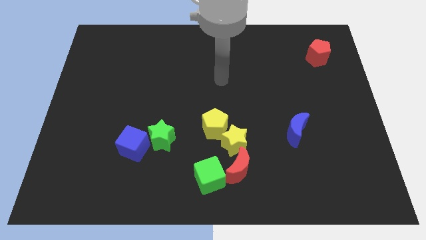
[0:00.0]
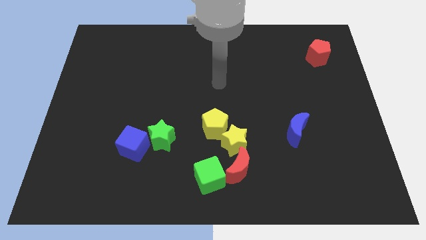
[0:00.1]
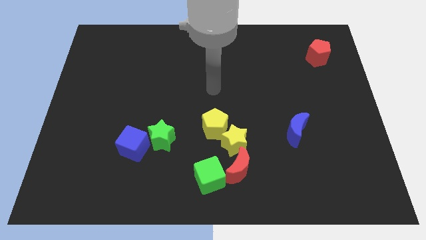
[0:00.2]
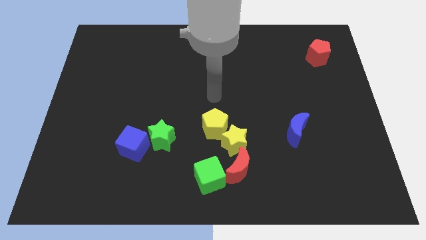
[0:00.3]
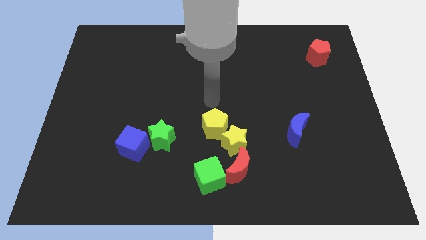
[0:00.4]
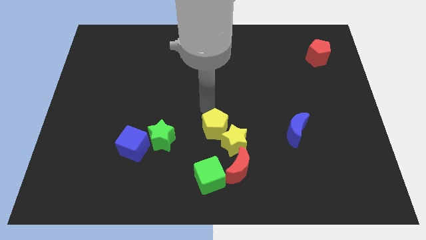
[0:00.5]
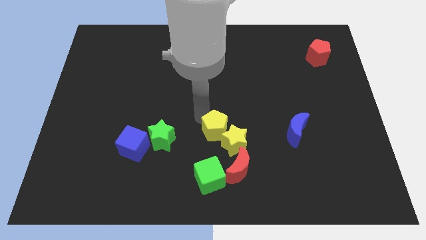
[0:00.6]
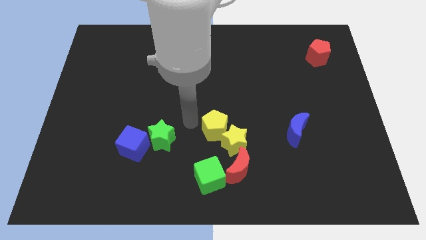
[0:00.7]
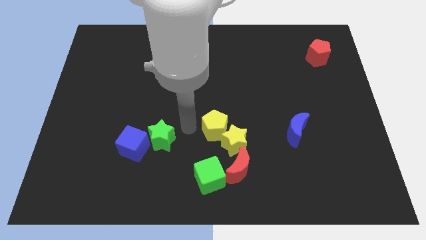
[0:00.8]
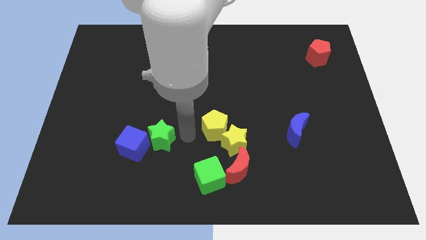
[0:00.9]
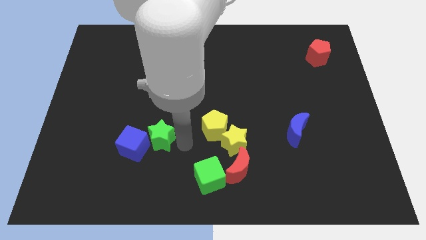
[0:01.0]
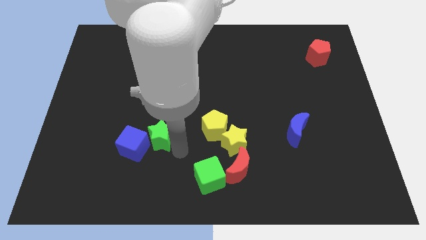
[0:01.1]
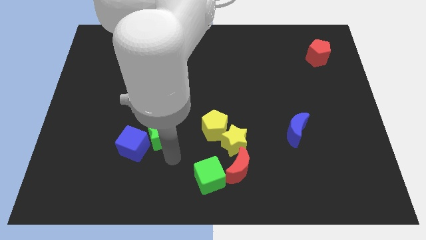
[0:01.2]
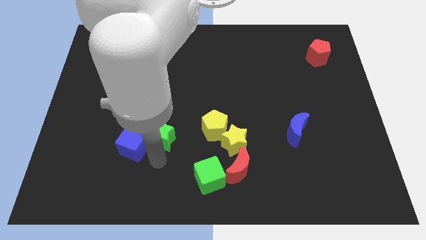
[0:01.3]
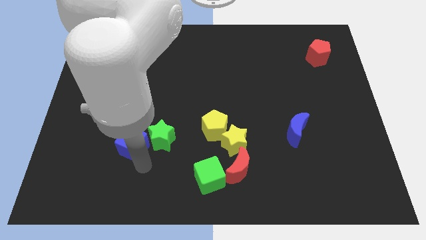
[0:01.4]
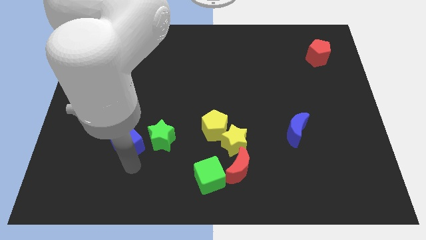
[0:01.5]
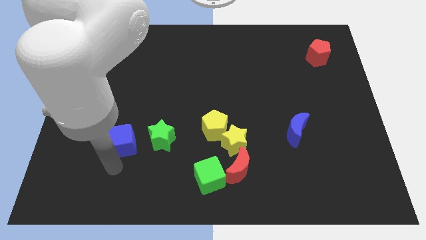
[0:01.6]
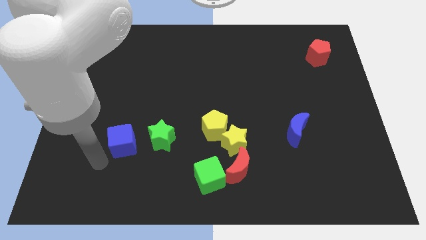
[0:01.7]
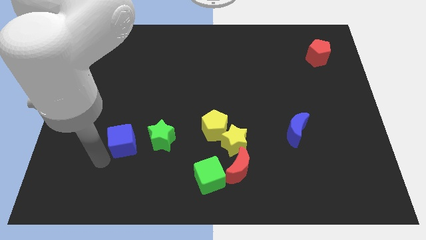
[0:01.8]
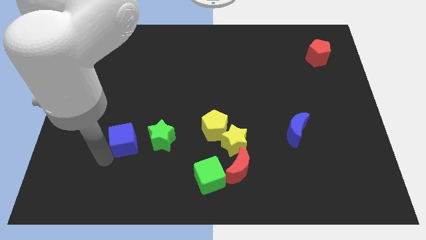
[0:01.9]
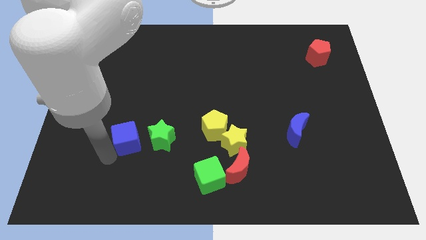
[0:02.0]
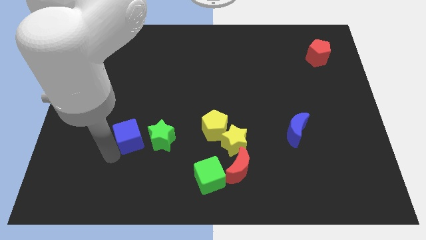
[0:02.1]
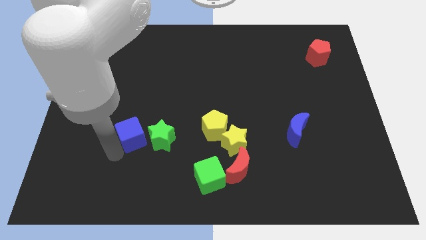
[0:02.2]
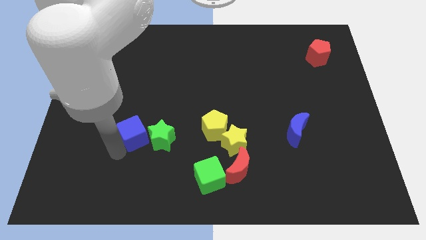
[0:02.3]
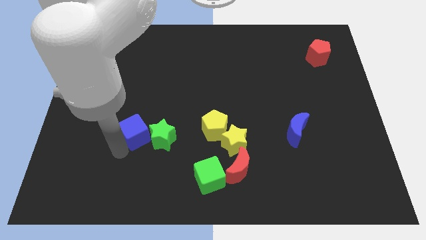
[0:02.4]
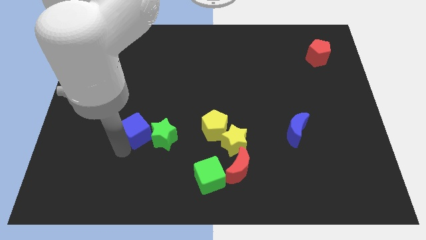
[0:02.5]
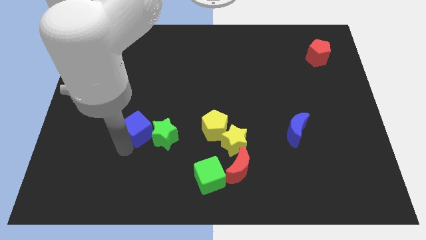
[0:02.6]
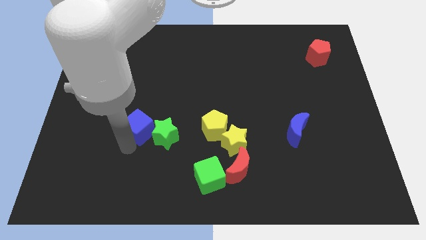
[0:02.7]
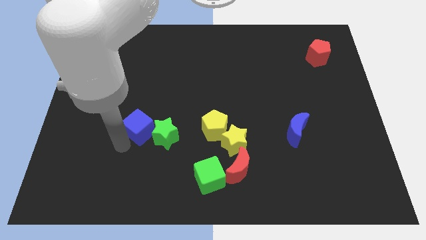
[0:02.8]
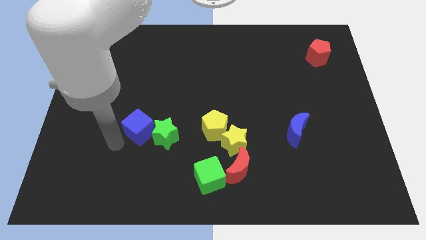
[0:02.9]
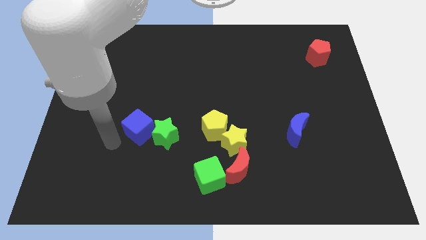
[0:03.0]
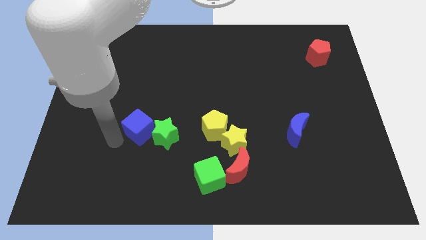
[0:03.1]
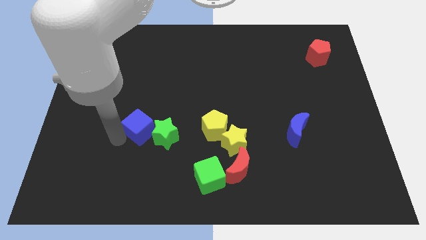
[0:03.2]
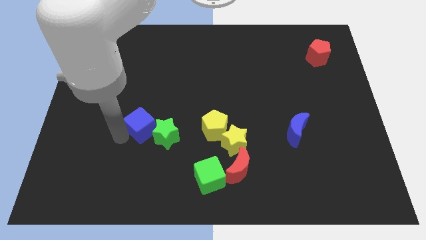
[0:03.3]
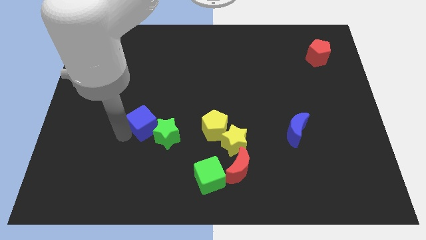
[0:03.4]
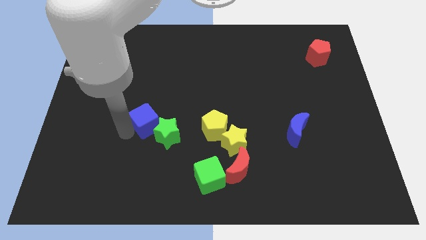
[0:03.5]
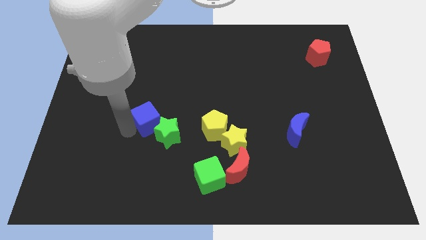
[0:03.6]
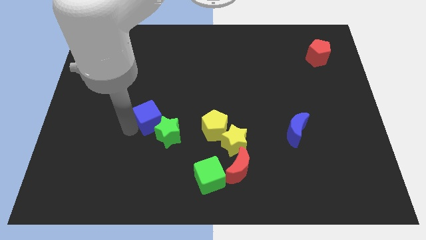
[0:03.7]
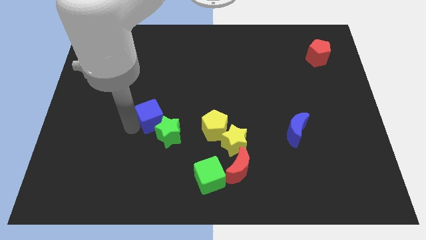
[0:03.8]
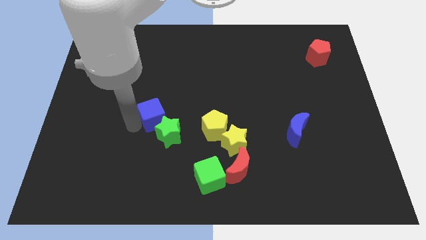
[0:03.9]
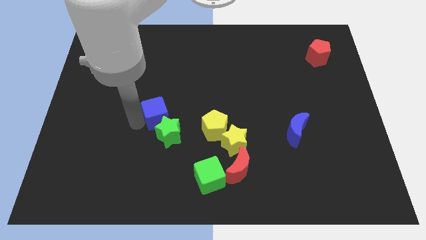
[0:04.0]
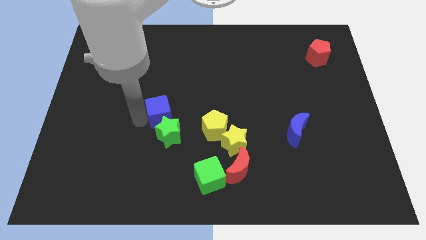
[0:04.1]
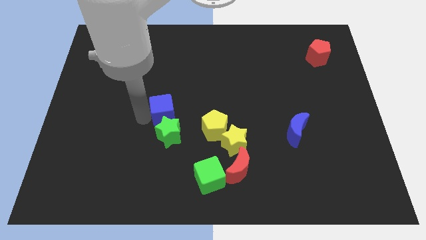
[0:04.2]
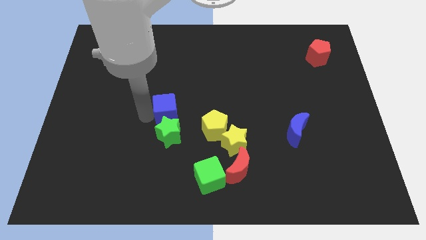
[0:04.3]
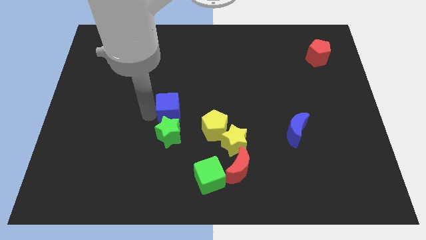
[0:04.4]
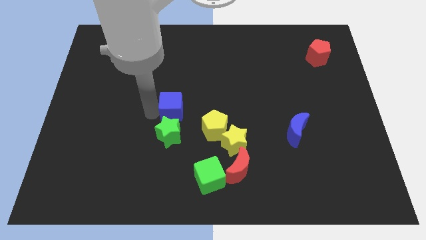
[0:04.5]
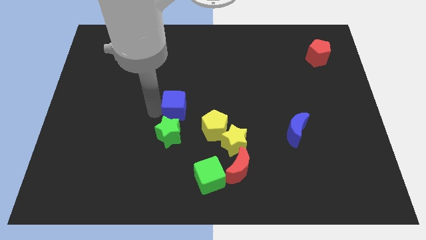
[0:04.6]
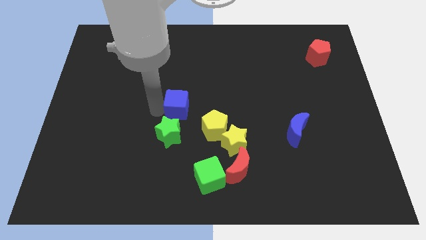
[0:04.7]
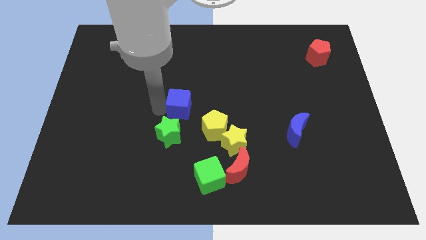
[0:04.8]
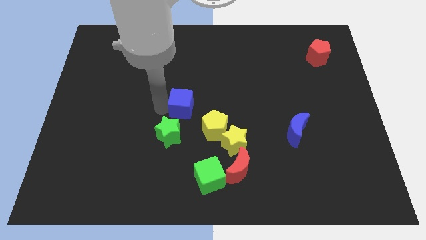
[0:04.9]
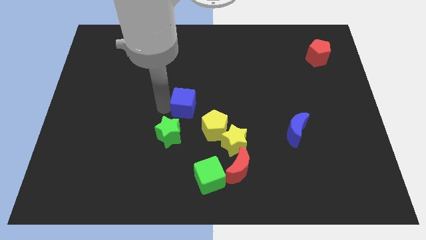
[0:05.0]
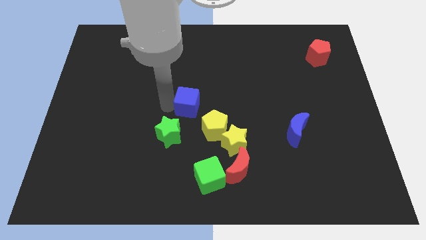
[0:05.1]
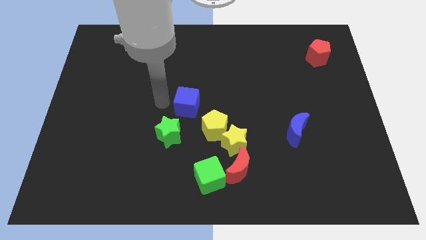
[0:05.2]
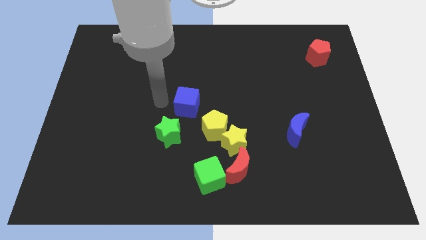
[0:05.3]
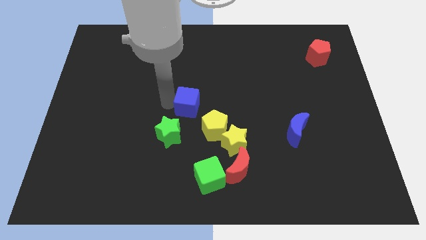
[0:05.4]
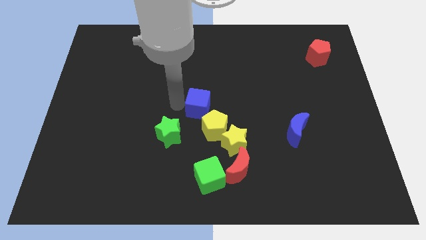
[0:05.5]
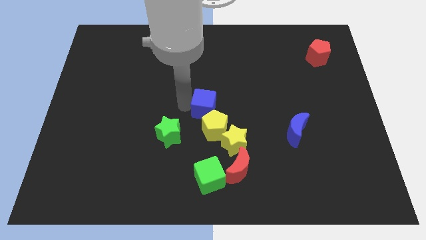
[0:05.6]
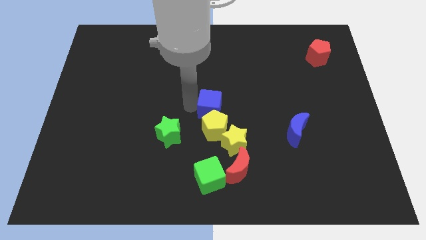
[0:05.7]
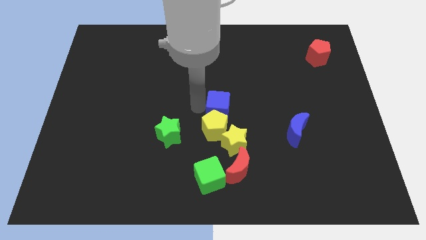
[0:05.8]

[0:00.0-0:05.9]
move the blue cube to the top right of the yellow pentagon

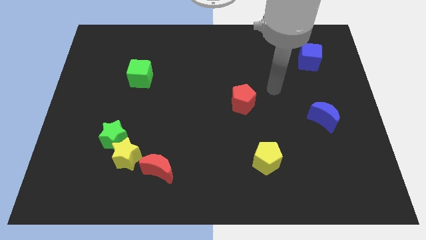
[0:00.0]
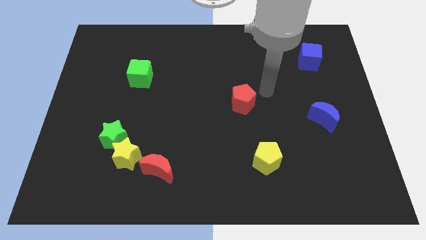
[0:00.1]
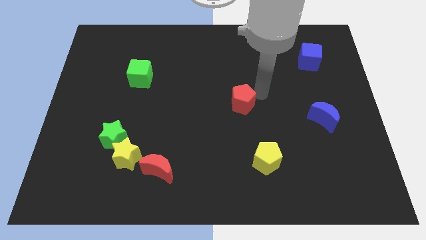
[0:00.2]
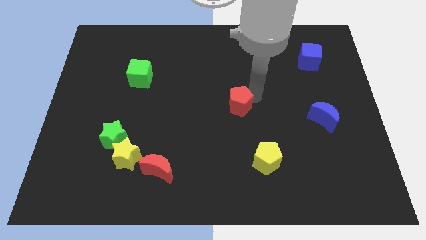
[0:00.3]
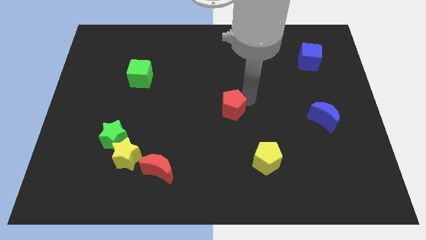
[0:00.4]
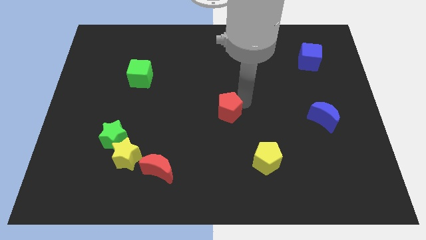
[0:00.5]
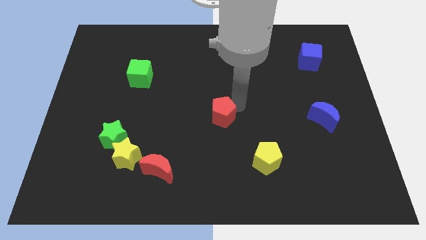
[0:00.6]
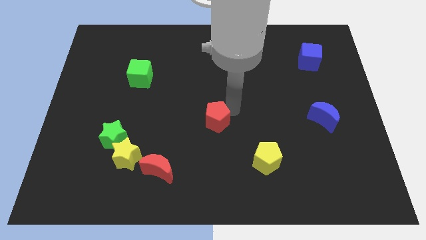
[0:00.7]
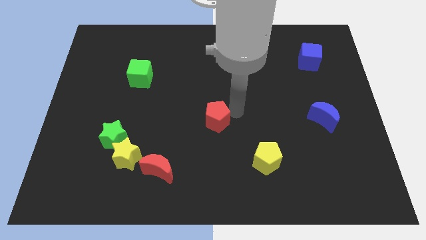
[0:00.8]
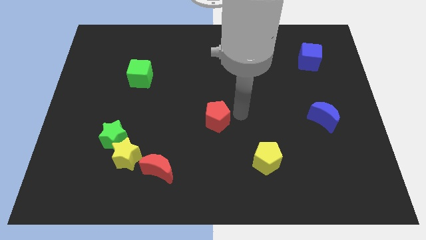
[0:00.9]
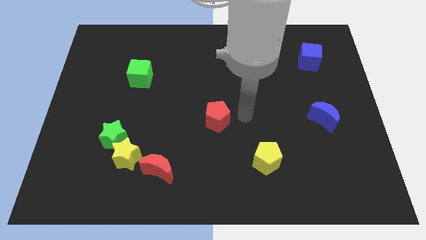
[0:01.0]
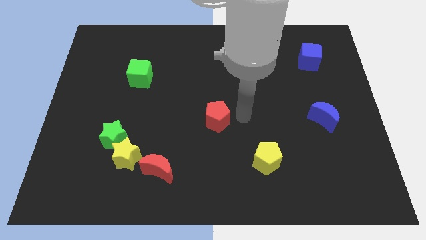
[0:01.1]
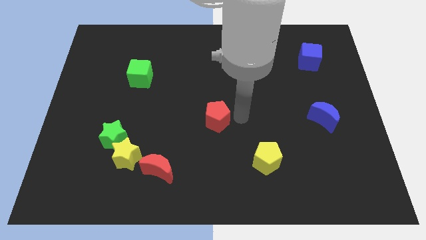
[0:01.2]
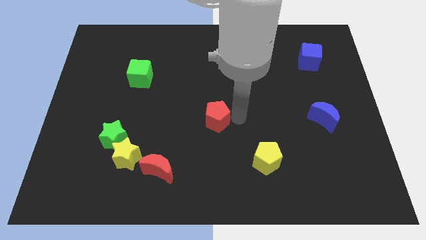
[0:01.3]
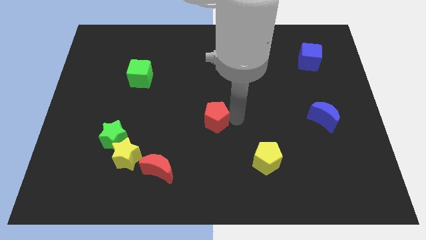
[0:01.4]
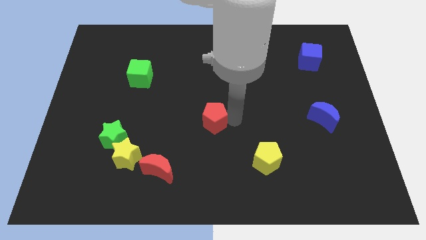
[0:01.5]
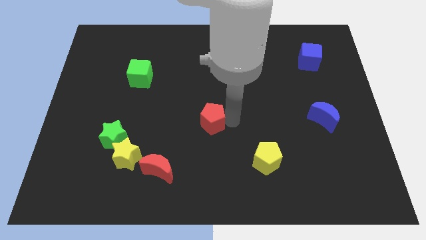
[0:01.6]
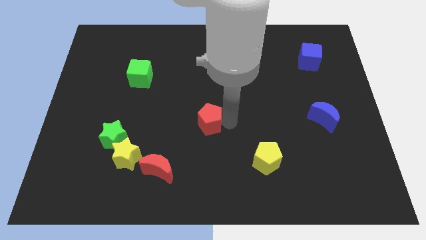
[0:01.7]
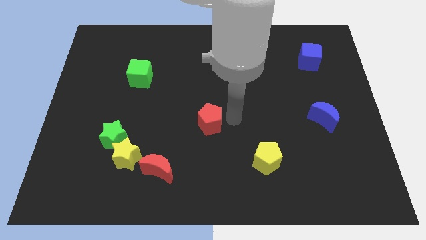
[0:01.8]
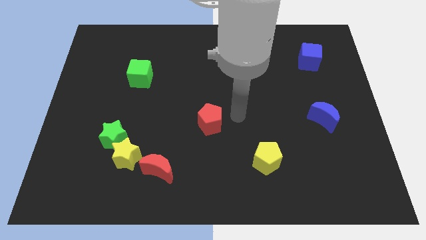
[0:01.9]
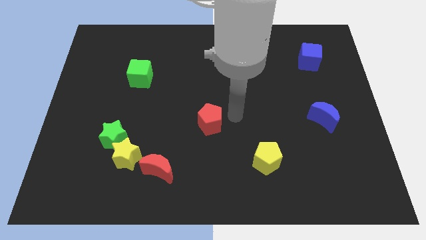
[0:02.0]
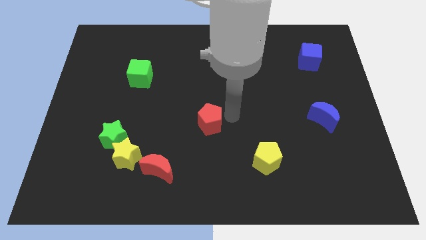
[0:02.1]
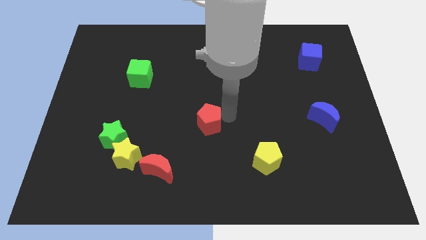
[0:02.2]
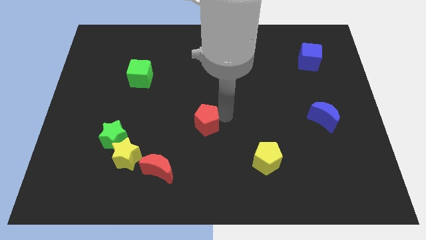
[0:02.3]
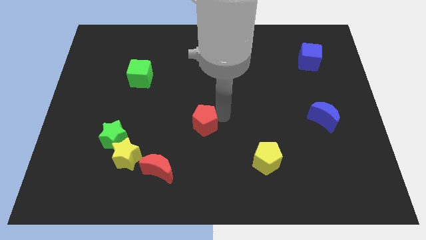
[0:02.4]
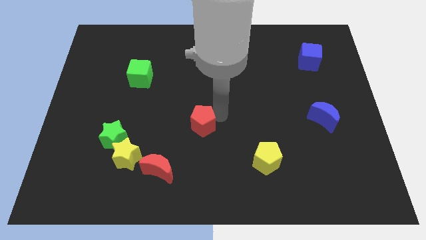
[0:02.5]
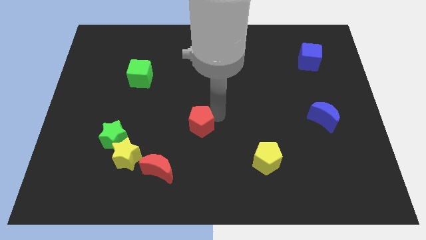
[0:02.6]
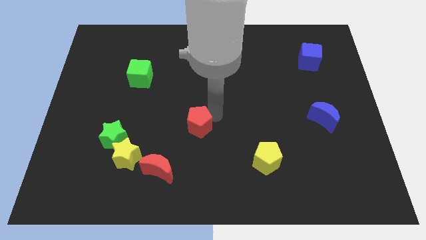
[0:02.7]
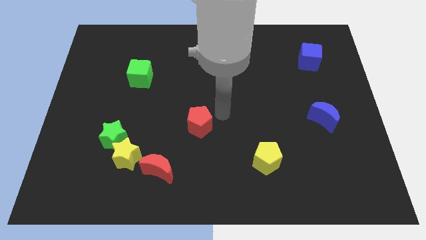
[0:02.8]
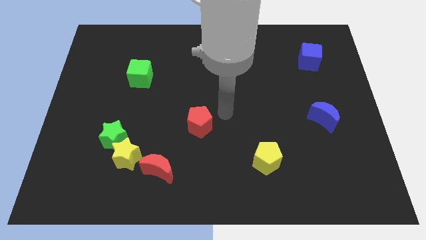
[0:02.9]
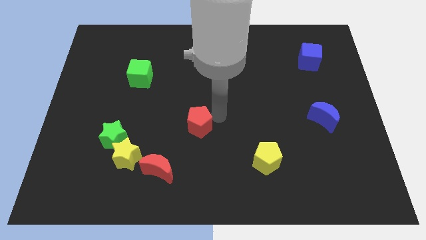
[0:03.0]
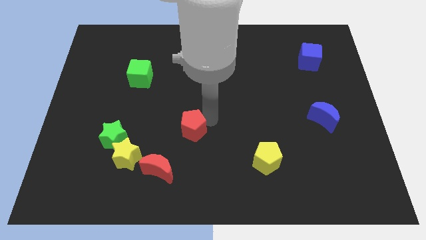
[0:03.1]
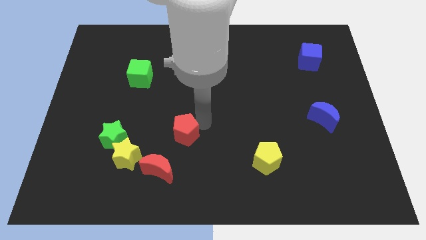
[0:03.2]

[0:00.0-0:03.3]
put the red pentagon to the right side of the green star
